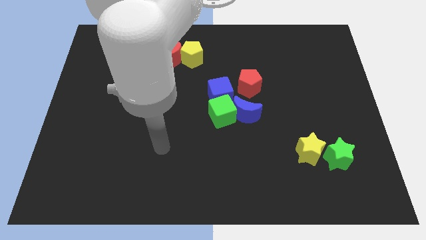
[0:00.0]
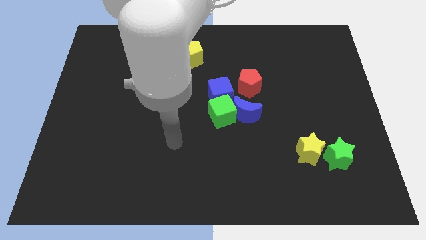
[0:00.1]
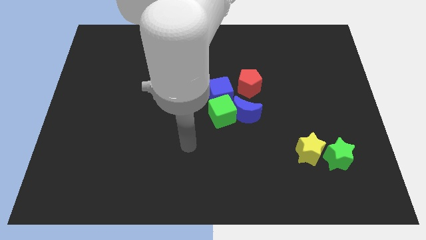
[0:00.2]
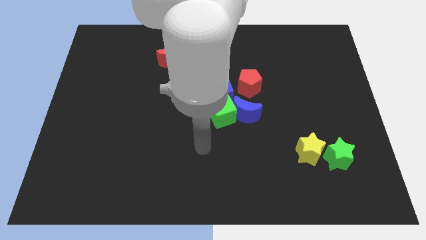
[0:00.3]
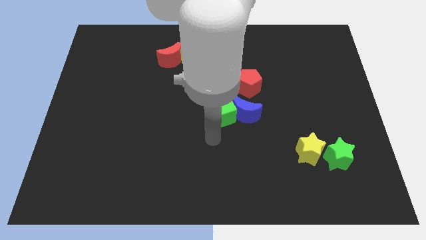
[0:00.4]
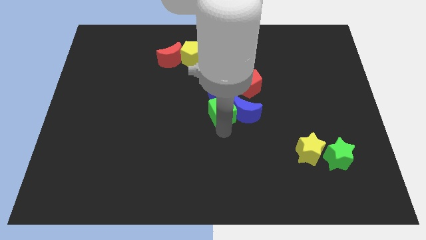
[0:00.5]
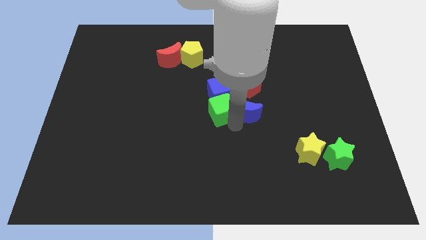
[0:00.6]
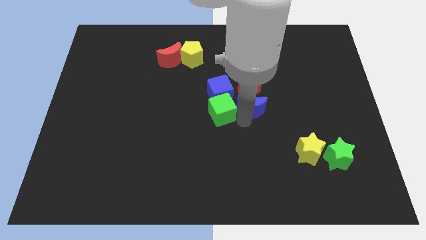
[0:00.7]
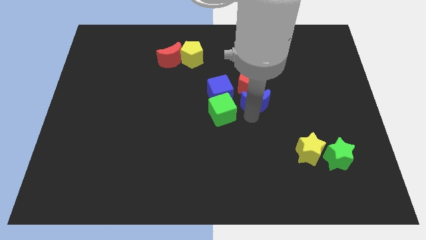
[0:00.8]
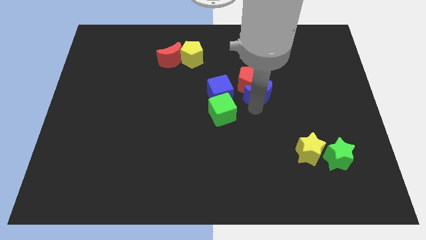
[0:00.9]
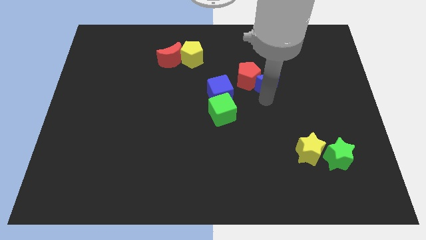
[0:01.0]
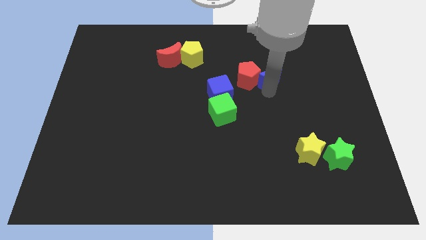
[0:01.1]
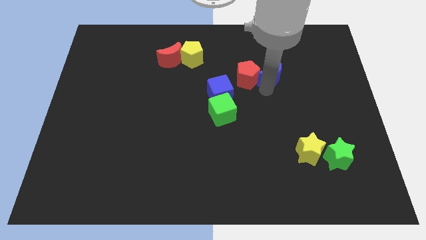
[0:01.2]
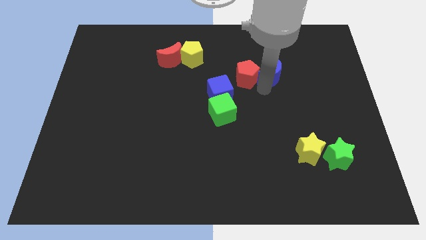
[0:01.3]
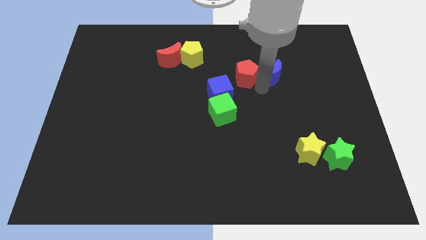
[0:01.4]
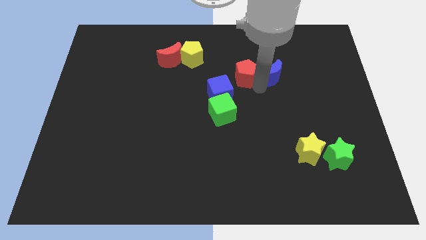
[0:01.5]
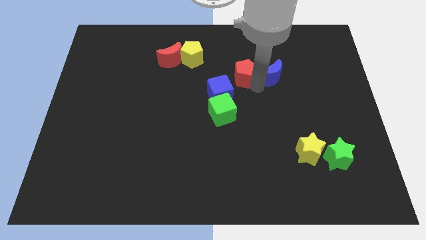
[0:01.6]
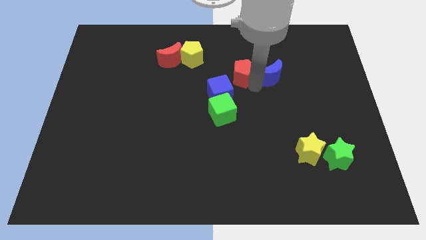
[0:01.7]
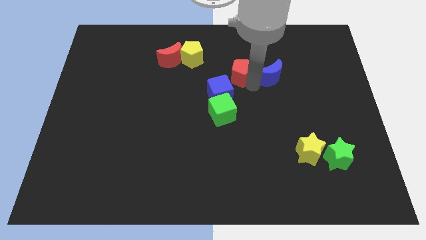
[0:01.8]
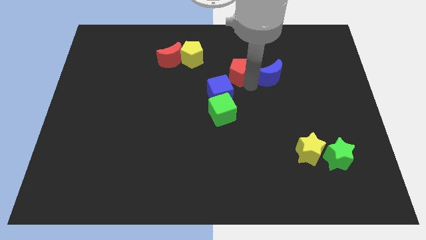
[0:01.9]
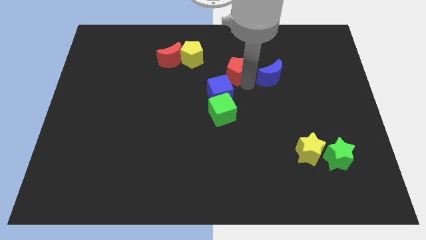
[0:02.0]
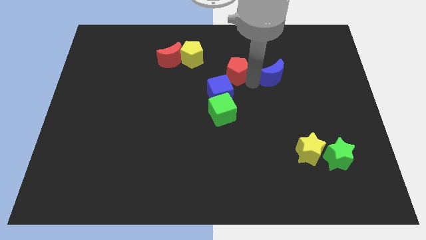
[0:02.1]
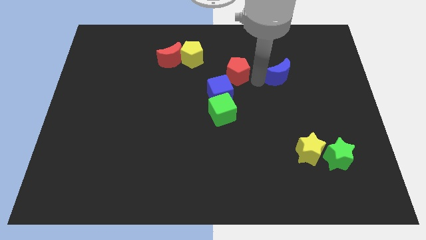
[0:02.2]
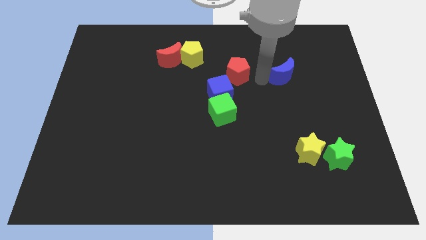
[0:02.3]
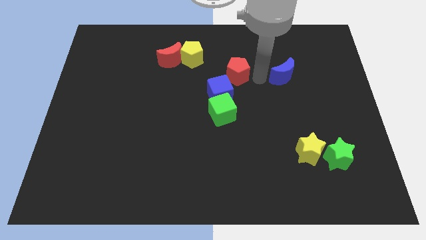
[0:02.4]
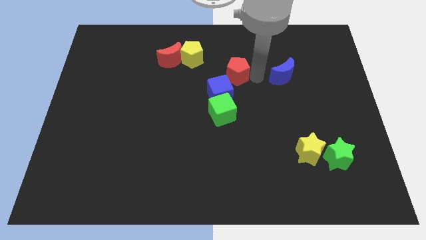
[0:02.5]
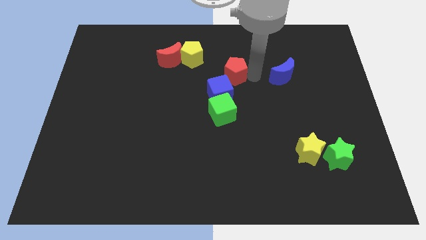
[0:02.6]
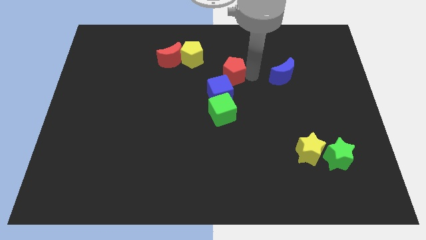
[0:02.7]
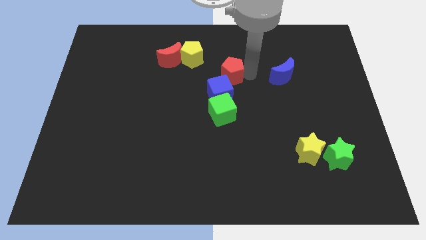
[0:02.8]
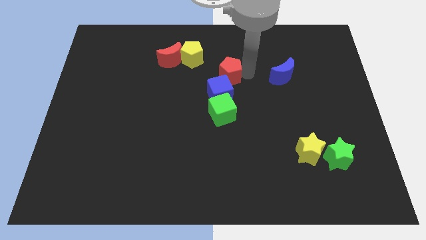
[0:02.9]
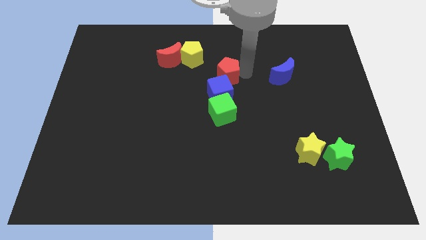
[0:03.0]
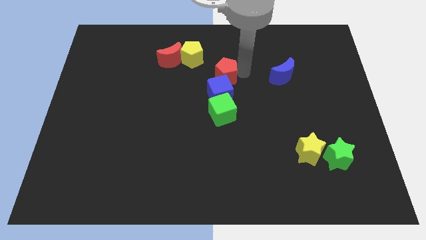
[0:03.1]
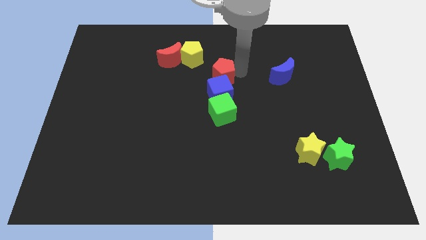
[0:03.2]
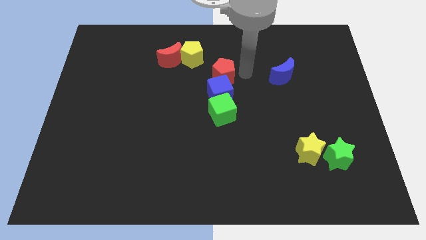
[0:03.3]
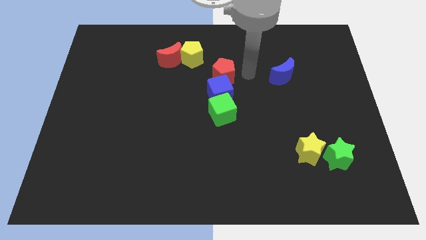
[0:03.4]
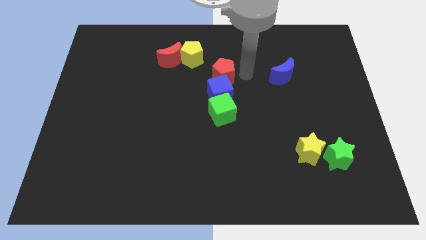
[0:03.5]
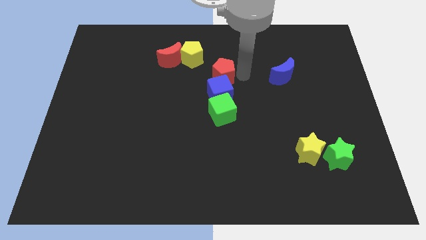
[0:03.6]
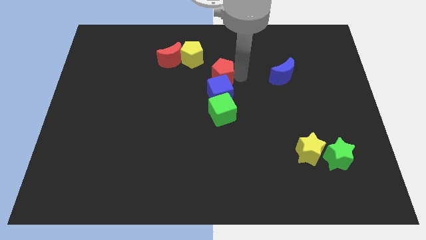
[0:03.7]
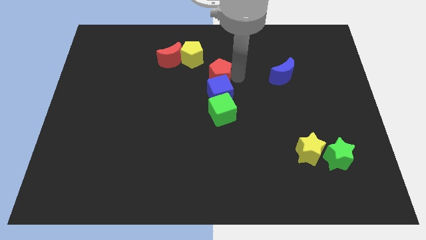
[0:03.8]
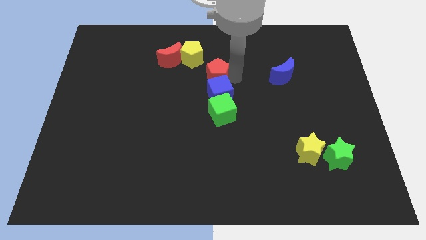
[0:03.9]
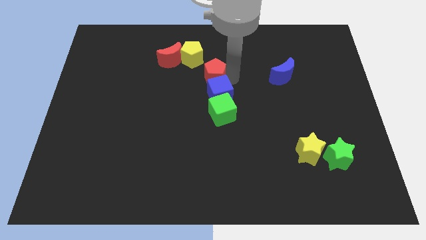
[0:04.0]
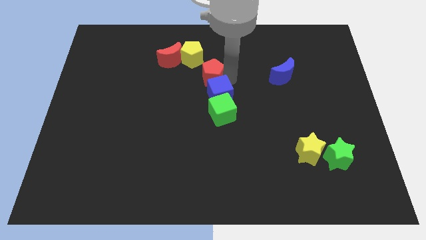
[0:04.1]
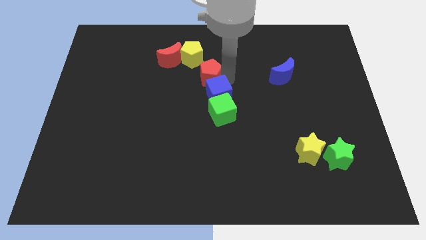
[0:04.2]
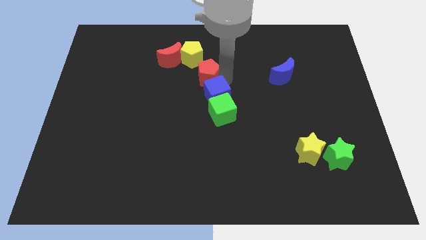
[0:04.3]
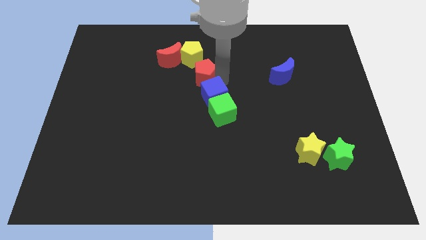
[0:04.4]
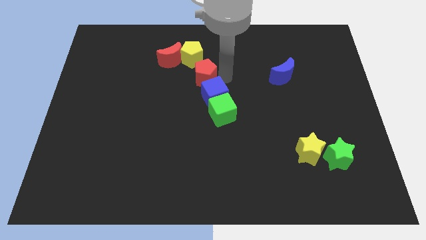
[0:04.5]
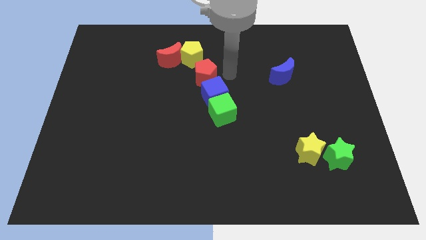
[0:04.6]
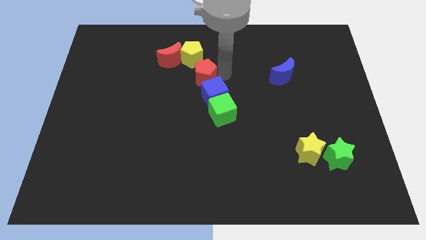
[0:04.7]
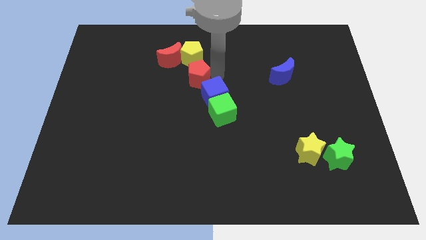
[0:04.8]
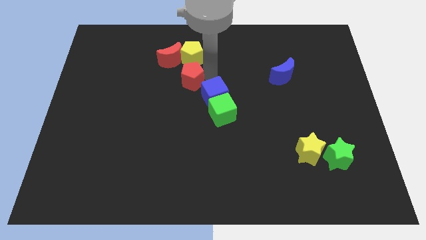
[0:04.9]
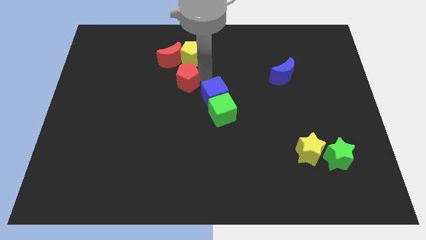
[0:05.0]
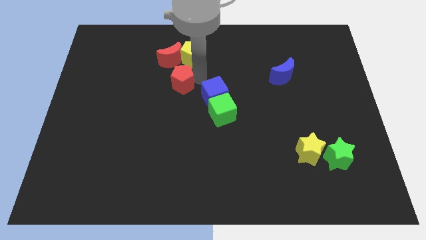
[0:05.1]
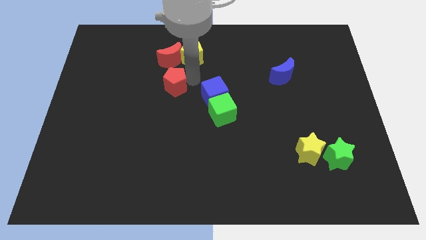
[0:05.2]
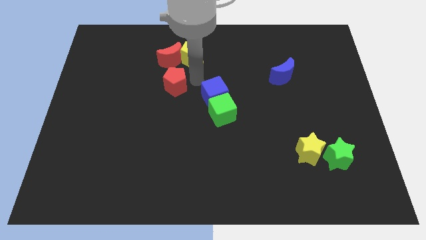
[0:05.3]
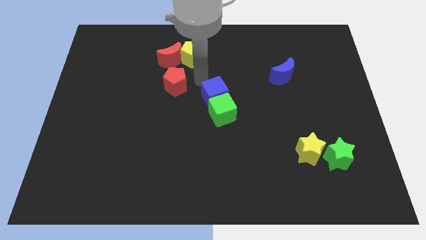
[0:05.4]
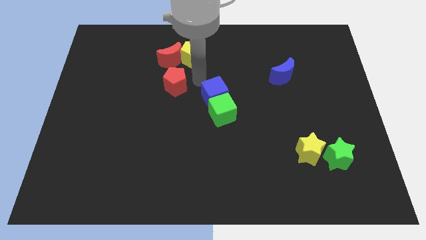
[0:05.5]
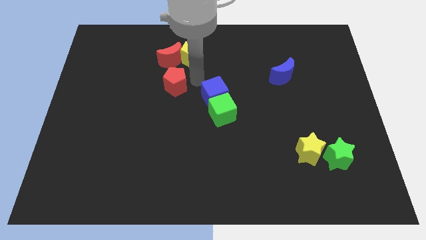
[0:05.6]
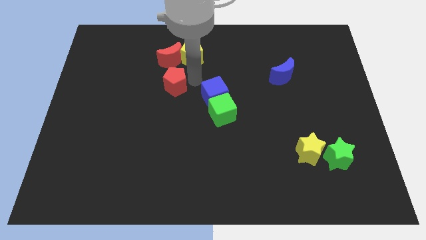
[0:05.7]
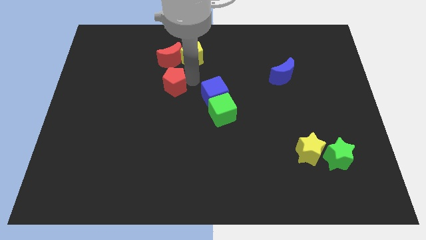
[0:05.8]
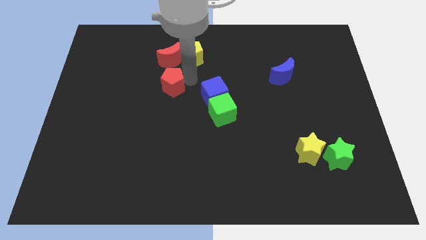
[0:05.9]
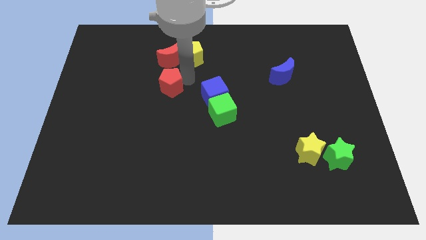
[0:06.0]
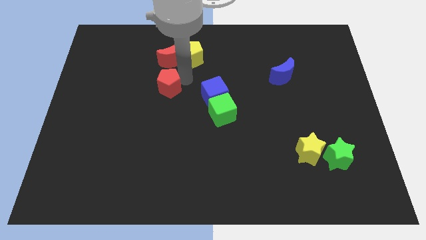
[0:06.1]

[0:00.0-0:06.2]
push the red pentagon to the left

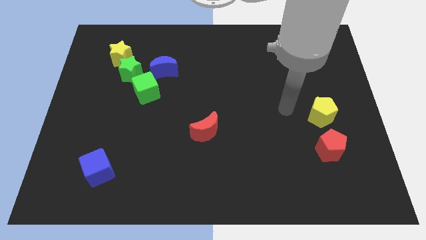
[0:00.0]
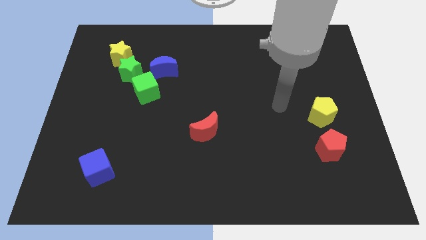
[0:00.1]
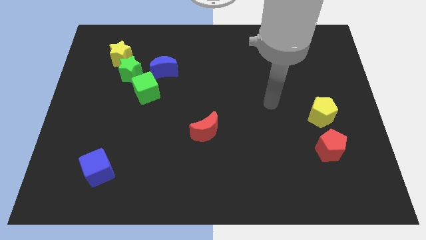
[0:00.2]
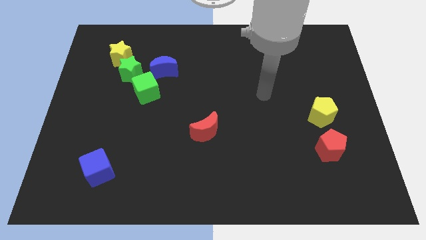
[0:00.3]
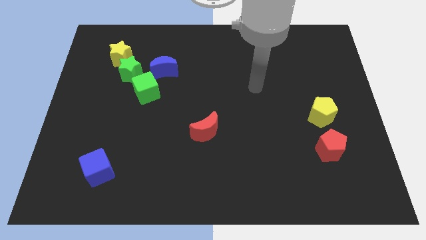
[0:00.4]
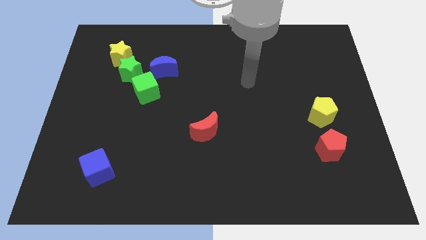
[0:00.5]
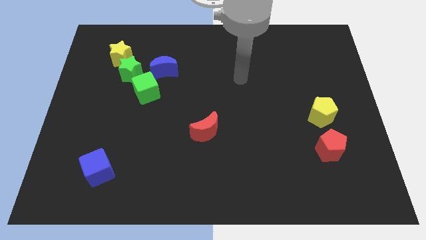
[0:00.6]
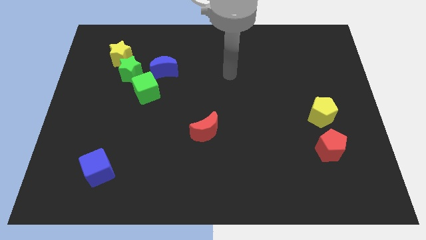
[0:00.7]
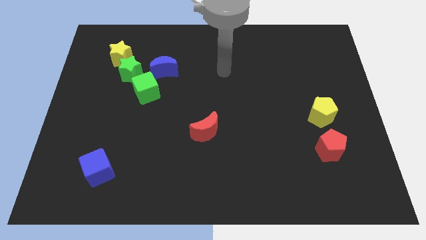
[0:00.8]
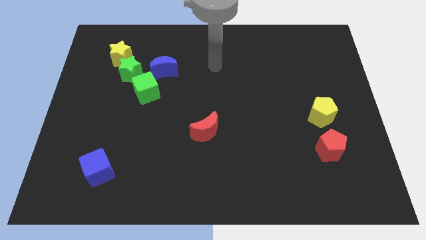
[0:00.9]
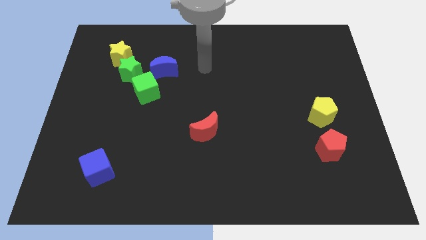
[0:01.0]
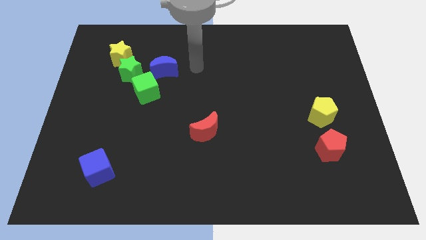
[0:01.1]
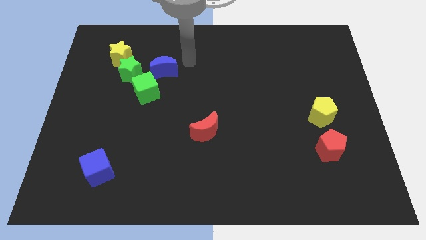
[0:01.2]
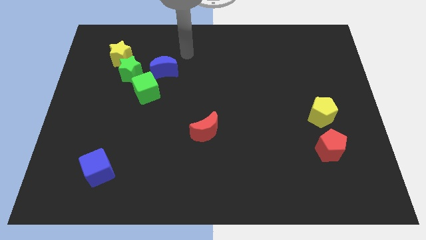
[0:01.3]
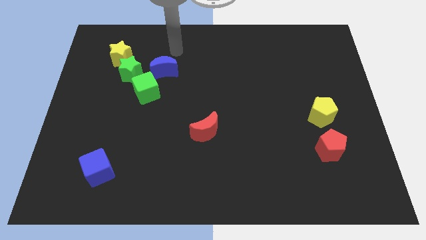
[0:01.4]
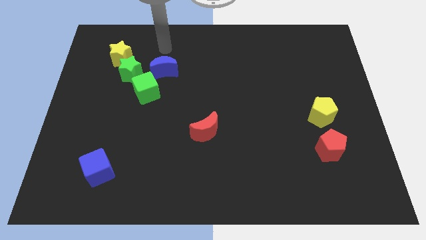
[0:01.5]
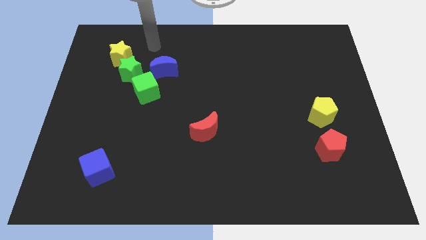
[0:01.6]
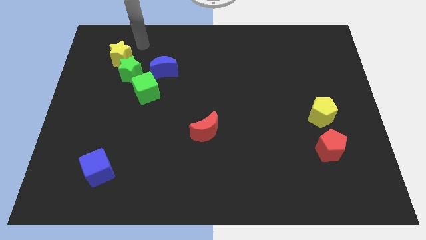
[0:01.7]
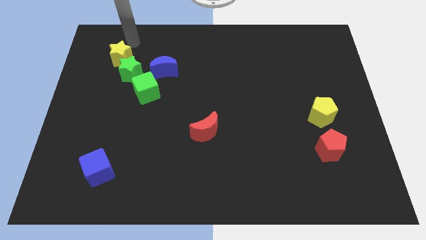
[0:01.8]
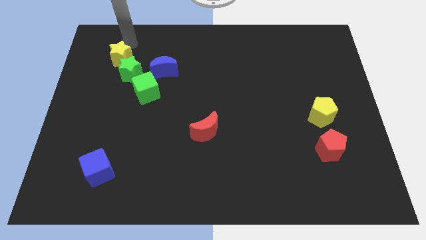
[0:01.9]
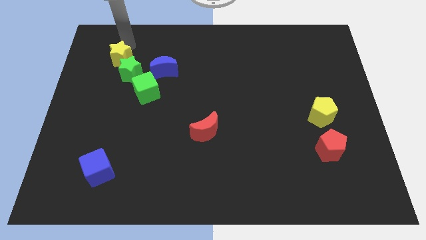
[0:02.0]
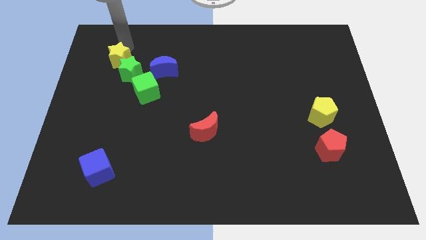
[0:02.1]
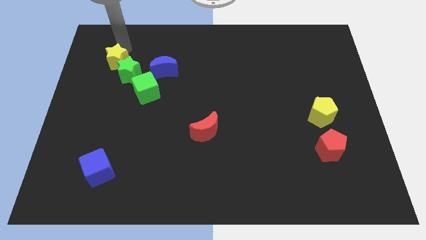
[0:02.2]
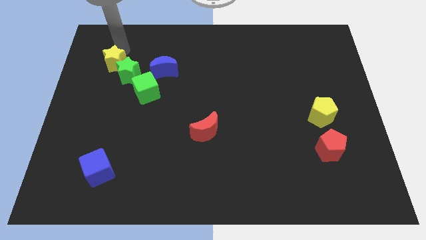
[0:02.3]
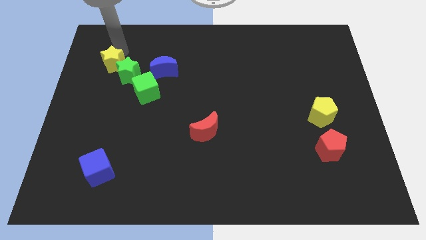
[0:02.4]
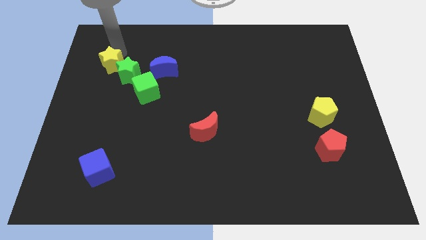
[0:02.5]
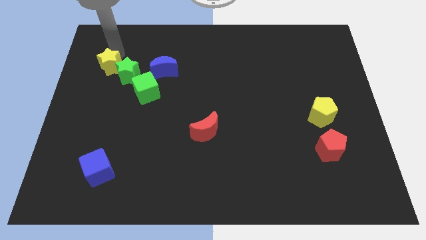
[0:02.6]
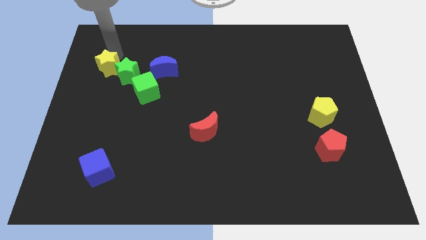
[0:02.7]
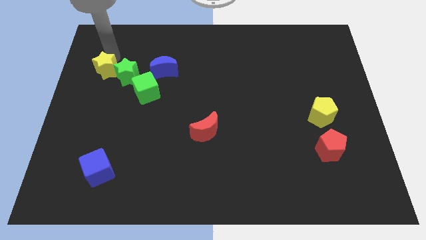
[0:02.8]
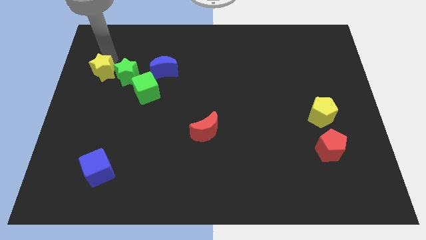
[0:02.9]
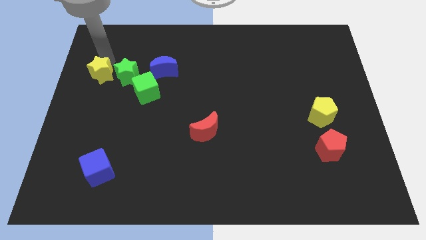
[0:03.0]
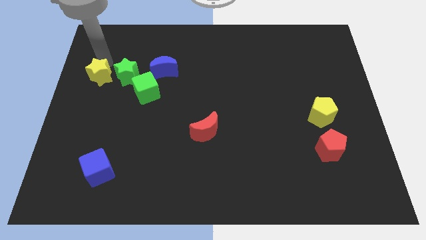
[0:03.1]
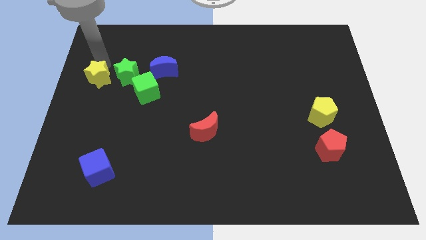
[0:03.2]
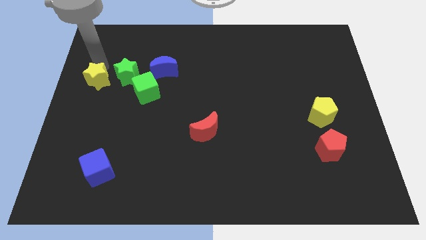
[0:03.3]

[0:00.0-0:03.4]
push the yellow star downwards a little bit
